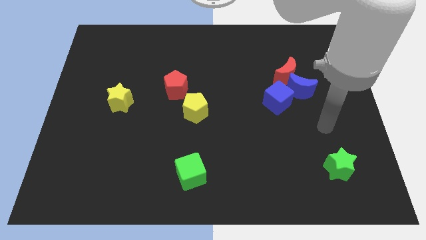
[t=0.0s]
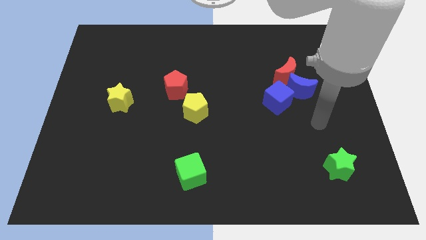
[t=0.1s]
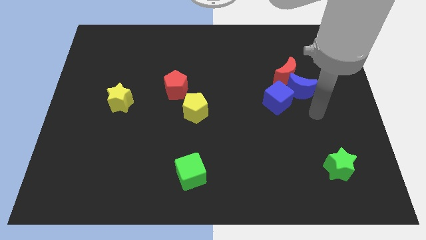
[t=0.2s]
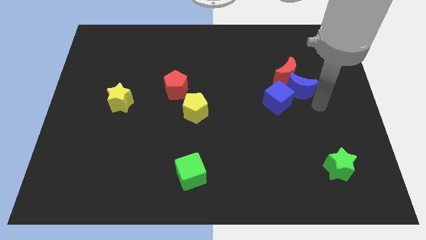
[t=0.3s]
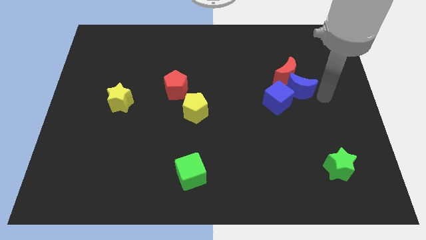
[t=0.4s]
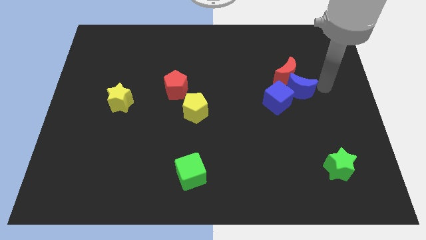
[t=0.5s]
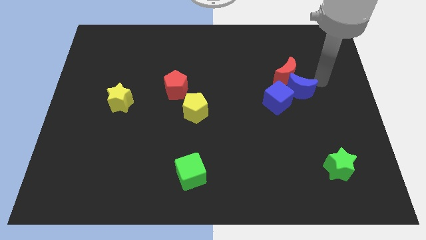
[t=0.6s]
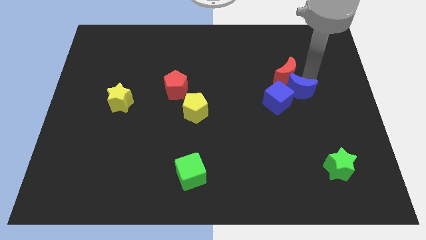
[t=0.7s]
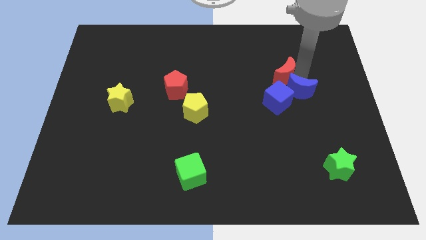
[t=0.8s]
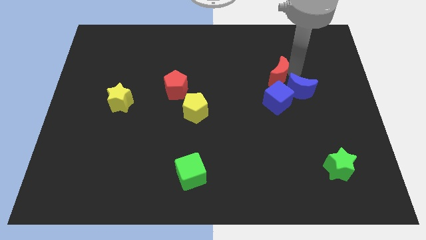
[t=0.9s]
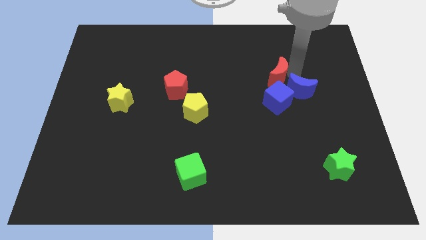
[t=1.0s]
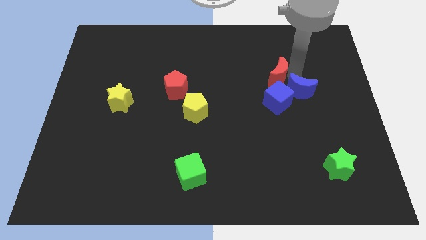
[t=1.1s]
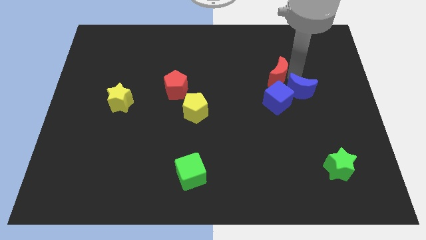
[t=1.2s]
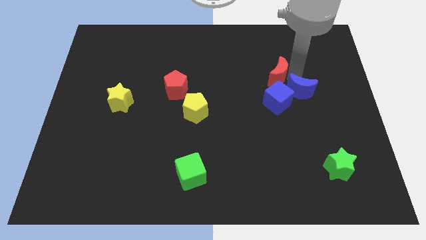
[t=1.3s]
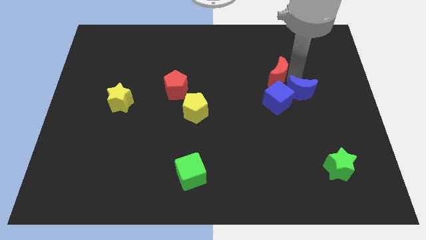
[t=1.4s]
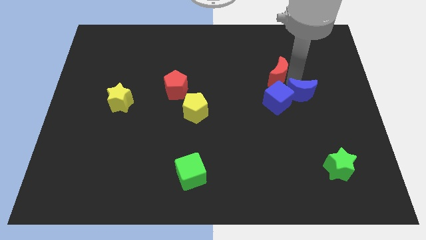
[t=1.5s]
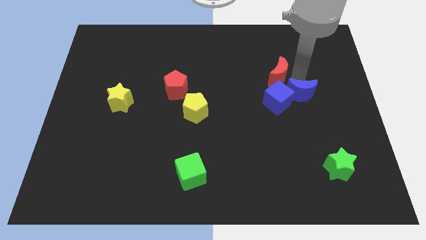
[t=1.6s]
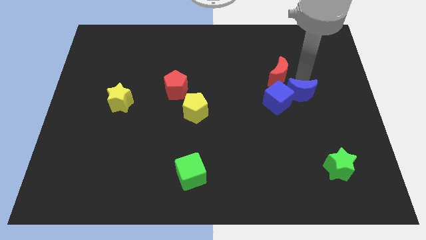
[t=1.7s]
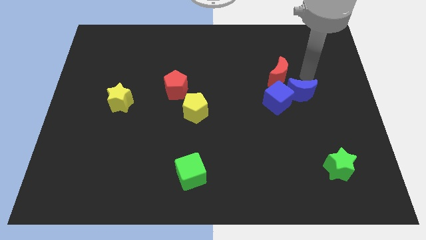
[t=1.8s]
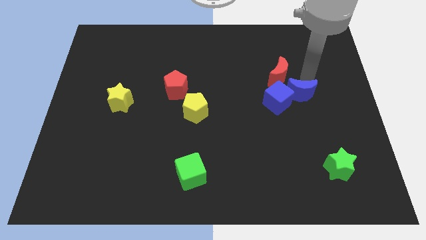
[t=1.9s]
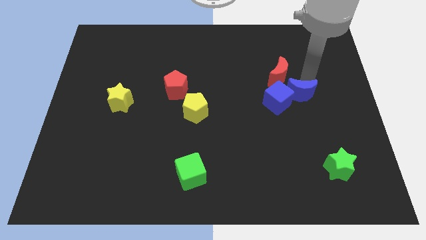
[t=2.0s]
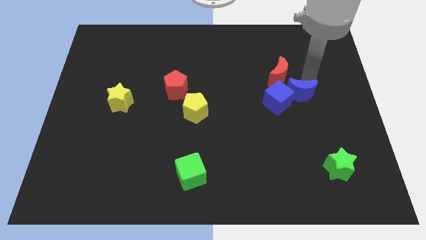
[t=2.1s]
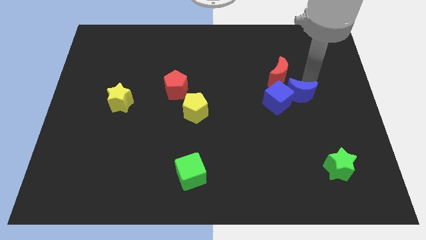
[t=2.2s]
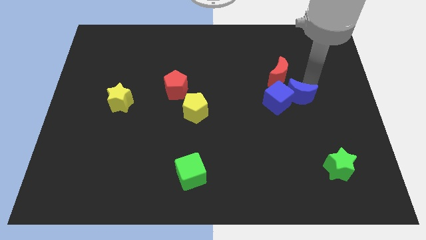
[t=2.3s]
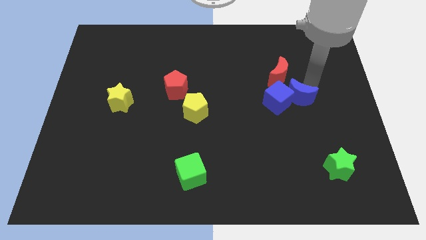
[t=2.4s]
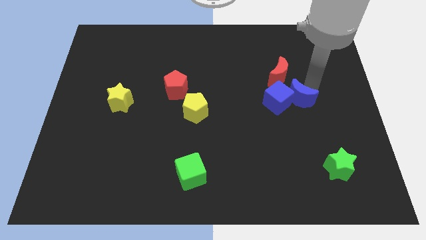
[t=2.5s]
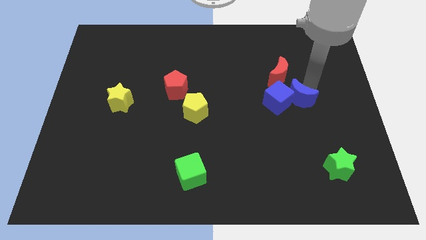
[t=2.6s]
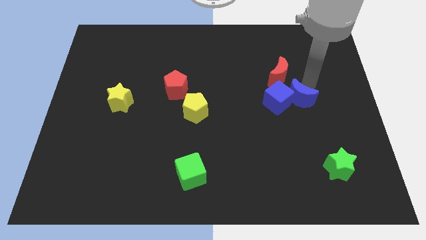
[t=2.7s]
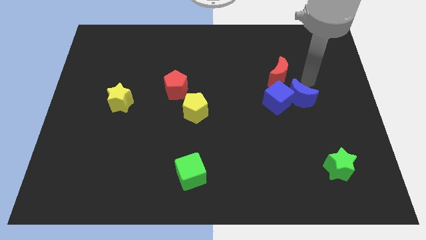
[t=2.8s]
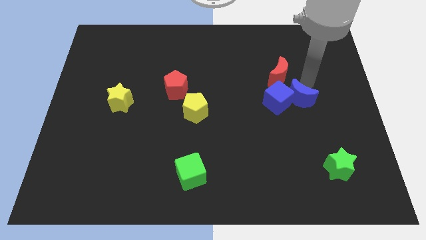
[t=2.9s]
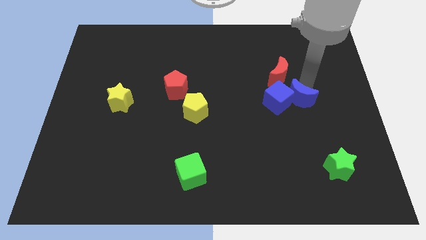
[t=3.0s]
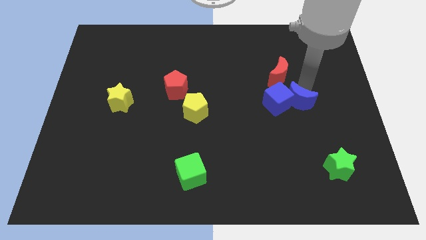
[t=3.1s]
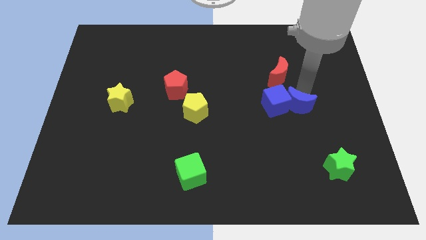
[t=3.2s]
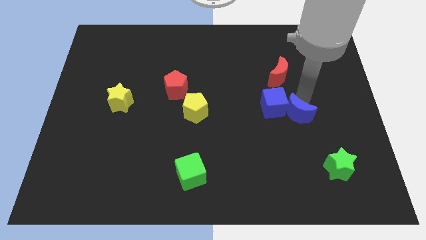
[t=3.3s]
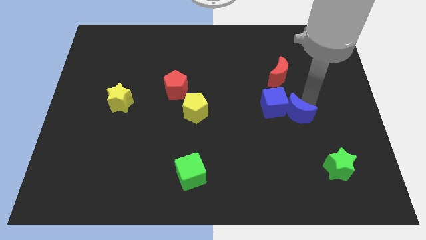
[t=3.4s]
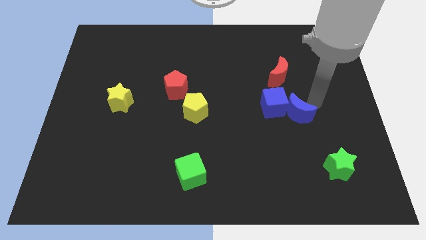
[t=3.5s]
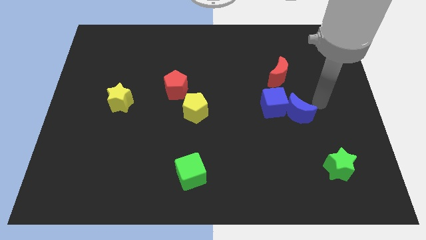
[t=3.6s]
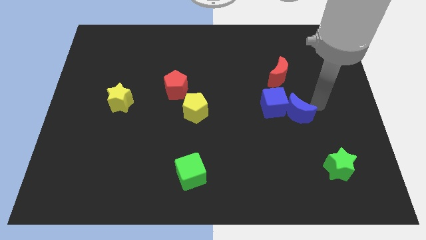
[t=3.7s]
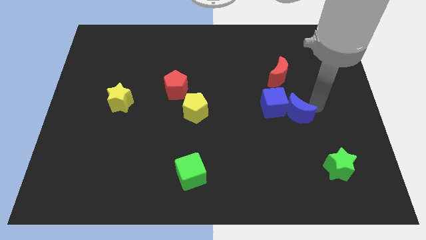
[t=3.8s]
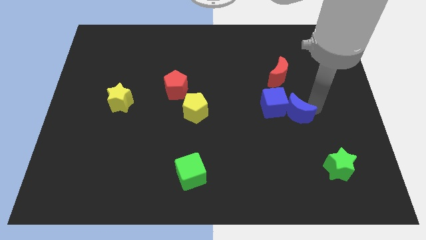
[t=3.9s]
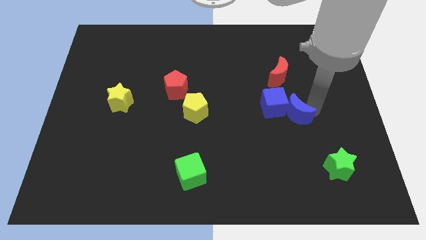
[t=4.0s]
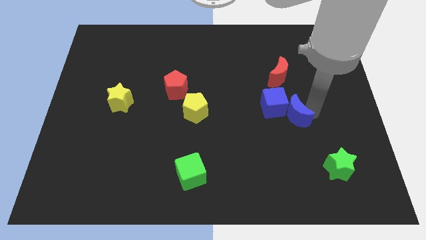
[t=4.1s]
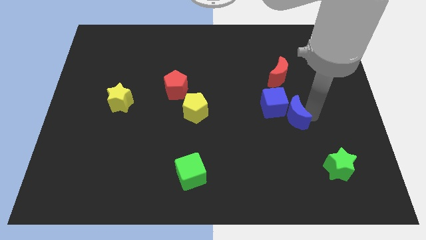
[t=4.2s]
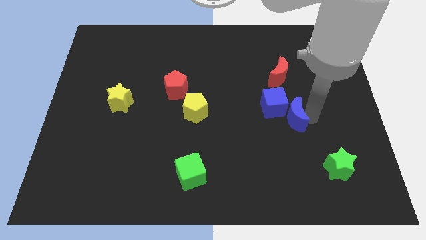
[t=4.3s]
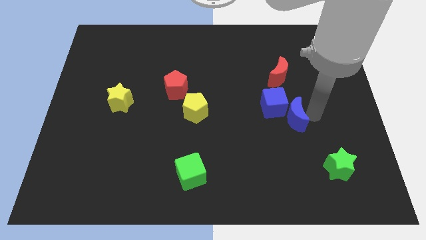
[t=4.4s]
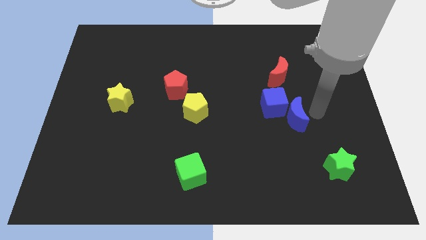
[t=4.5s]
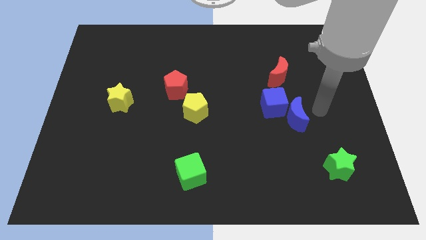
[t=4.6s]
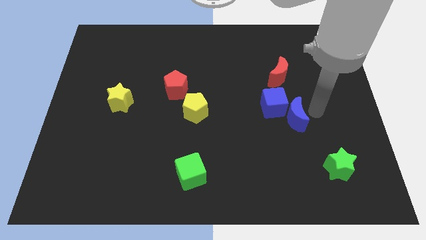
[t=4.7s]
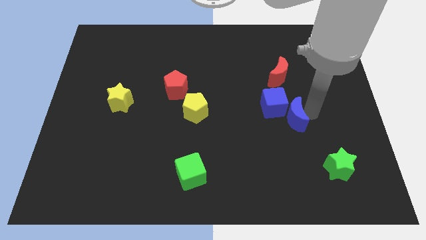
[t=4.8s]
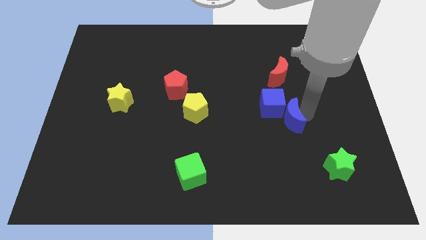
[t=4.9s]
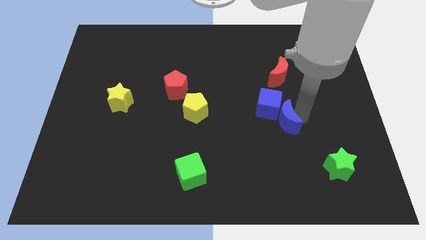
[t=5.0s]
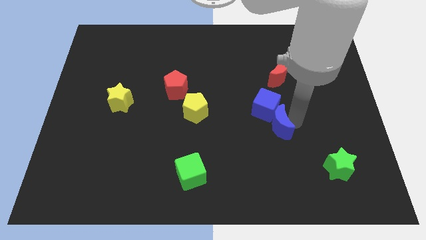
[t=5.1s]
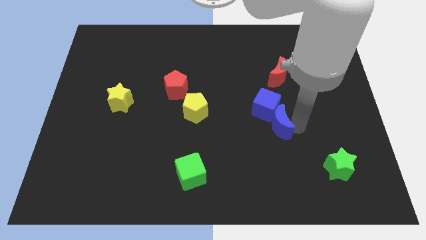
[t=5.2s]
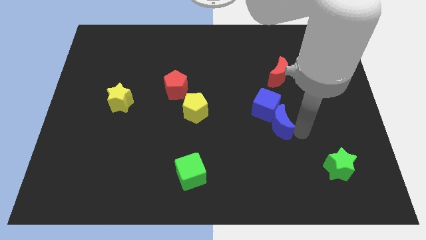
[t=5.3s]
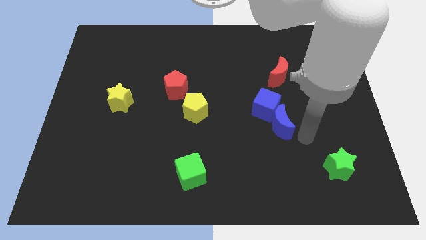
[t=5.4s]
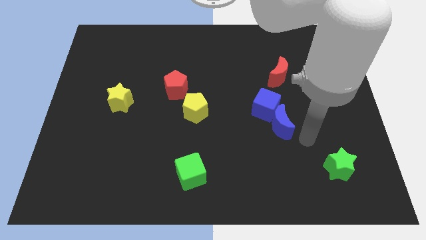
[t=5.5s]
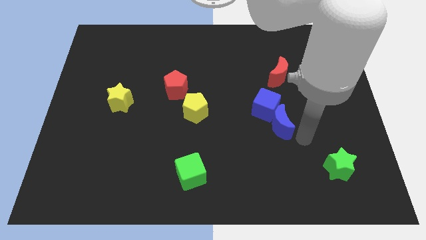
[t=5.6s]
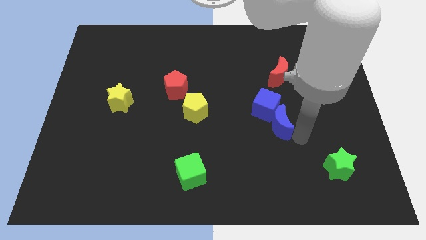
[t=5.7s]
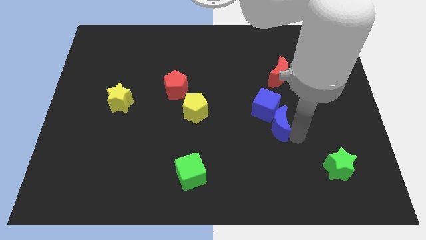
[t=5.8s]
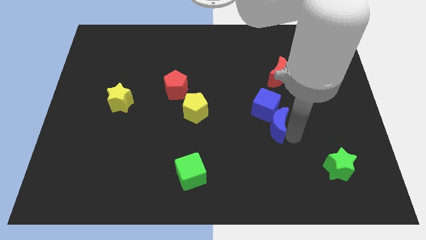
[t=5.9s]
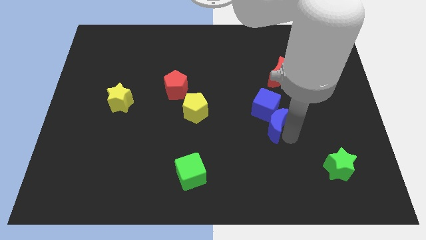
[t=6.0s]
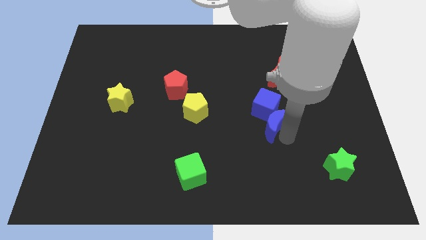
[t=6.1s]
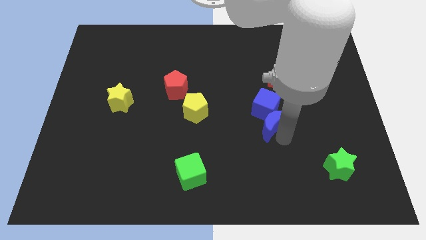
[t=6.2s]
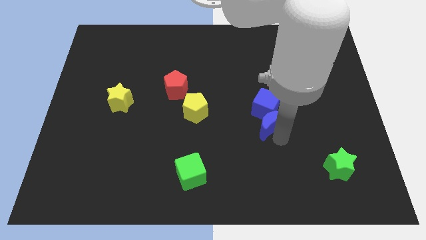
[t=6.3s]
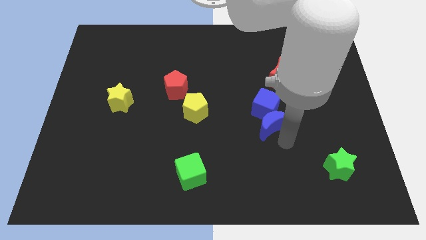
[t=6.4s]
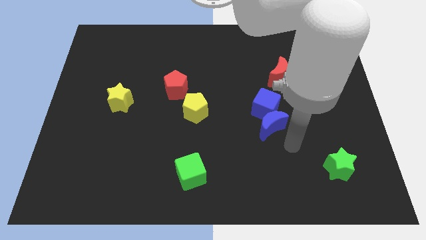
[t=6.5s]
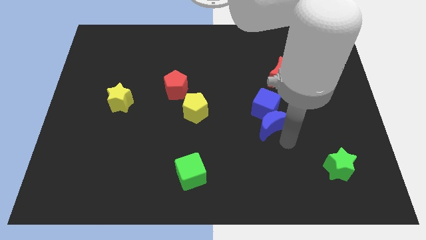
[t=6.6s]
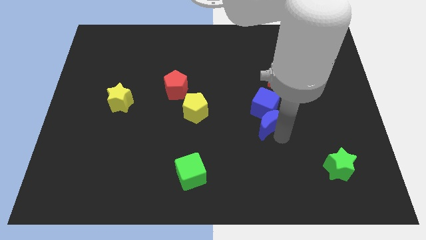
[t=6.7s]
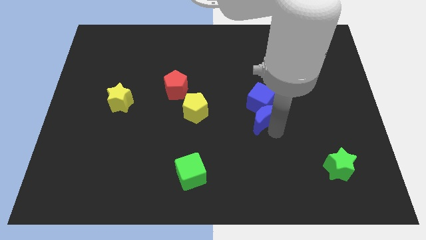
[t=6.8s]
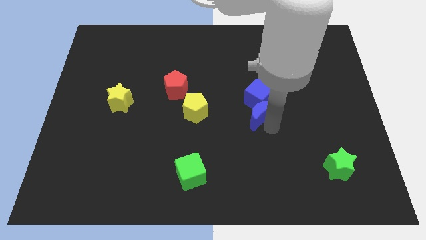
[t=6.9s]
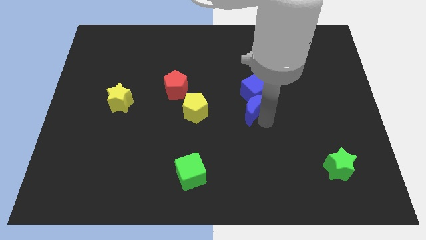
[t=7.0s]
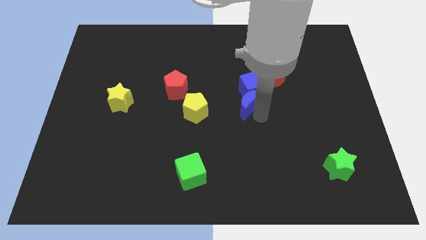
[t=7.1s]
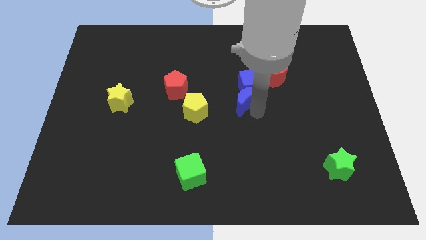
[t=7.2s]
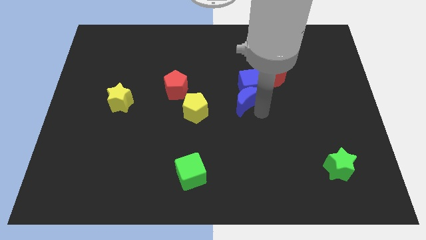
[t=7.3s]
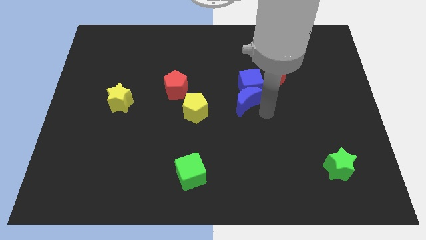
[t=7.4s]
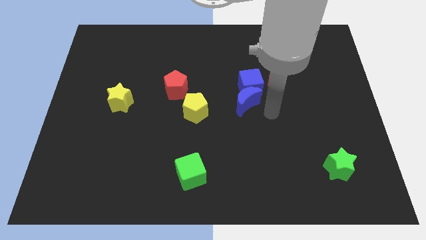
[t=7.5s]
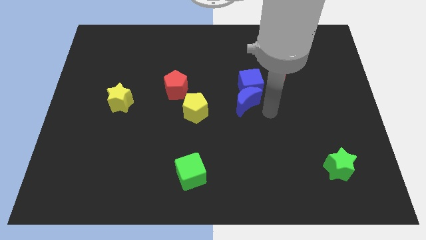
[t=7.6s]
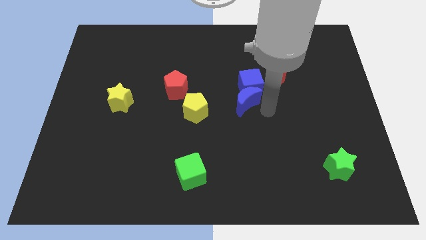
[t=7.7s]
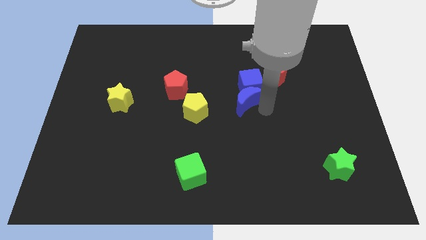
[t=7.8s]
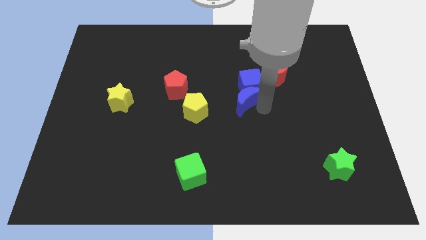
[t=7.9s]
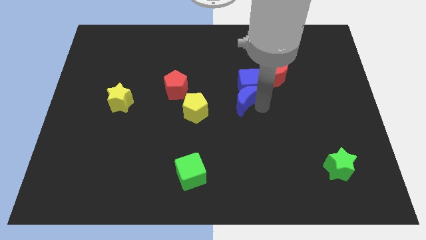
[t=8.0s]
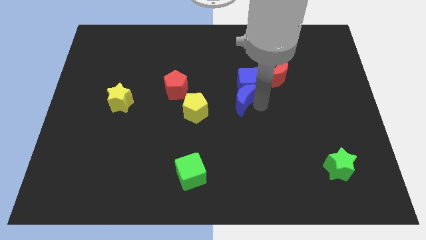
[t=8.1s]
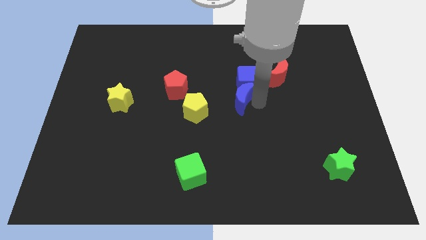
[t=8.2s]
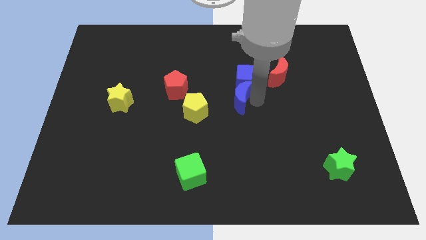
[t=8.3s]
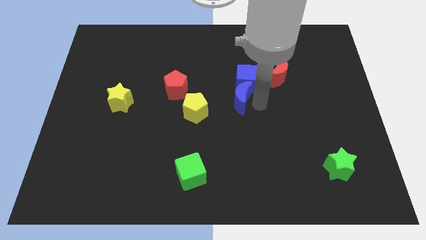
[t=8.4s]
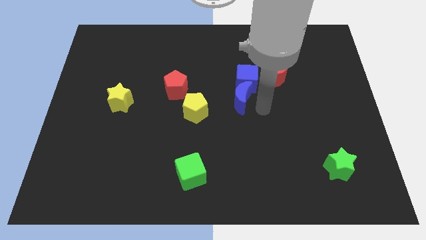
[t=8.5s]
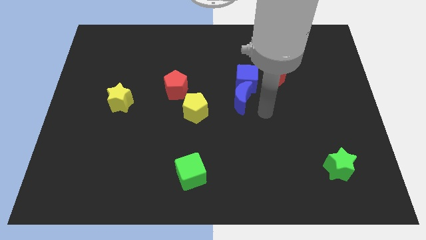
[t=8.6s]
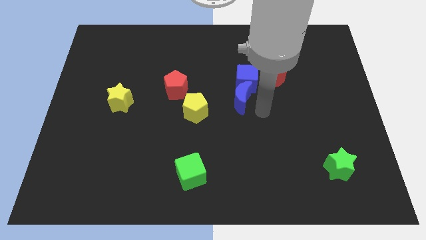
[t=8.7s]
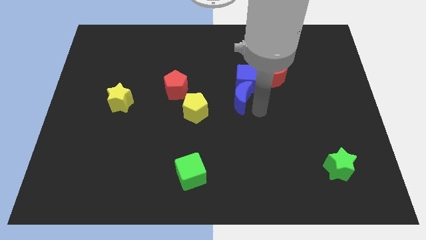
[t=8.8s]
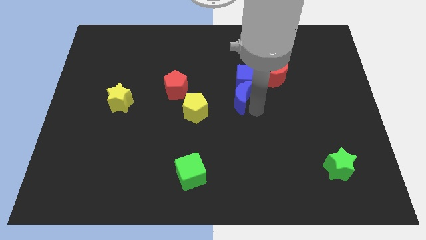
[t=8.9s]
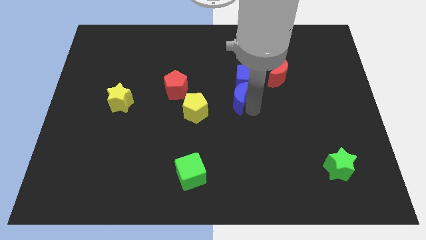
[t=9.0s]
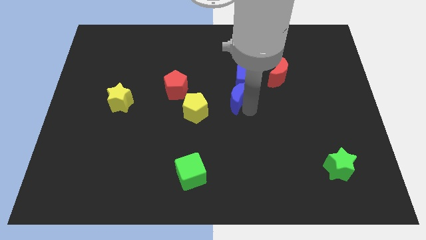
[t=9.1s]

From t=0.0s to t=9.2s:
put the blue moon to the right side of the red pentagon
